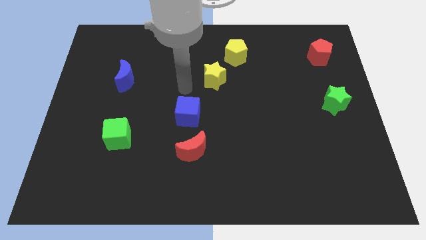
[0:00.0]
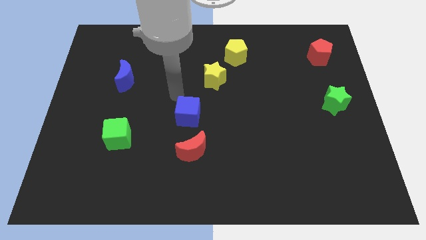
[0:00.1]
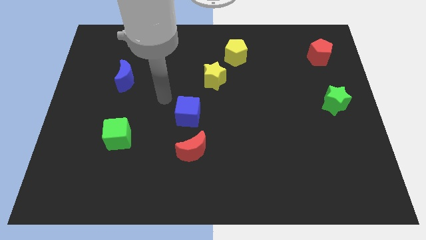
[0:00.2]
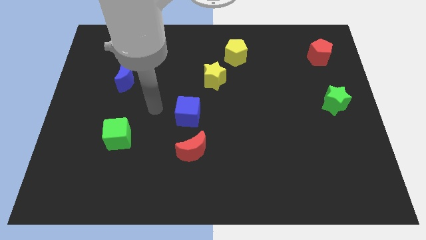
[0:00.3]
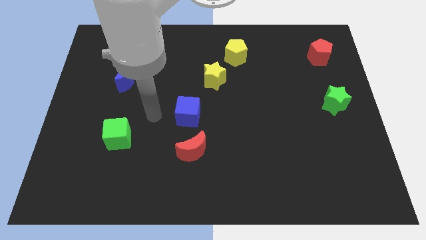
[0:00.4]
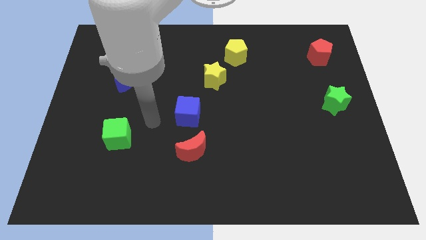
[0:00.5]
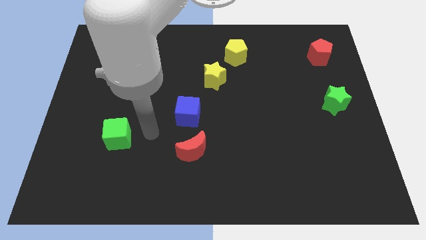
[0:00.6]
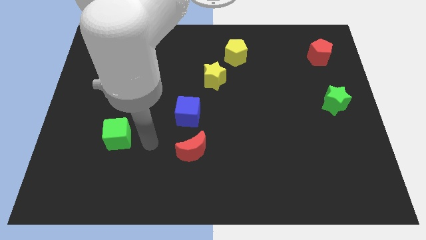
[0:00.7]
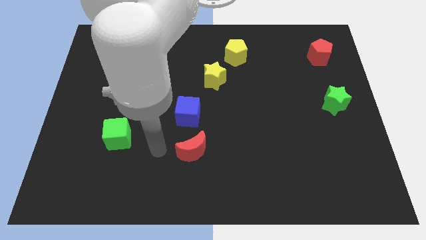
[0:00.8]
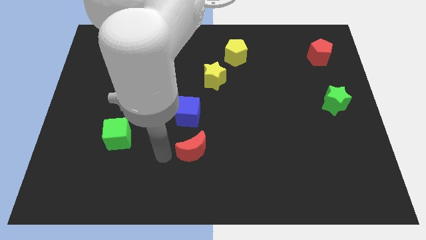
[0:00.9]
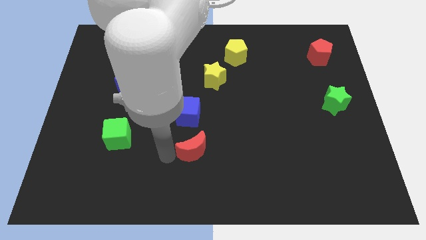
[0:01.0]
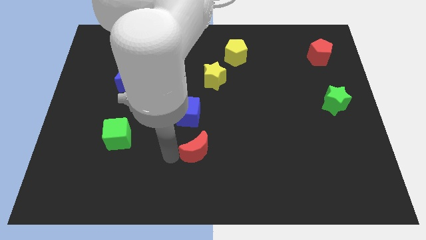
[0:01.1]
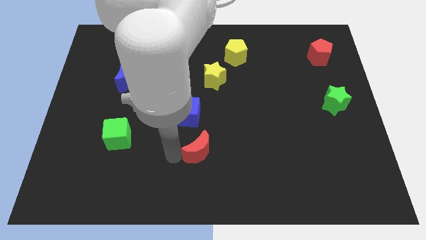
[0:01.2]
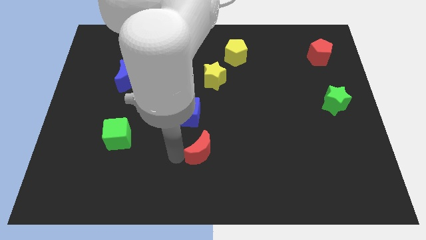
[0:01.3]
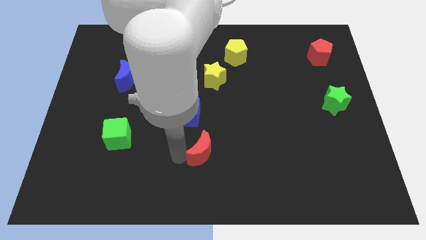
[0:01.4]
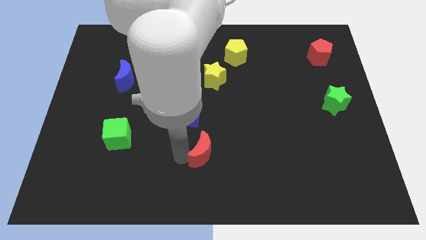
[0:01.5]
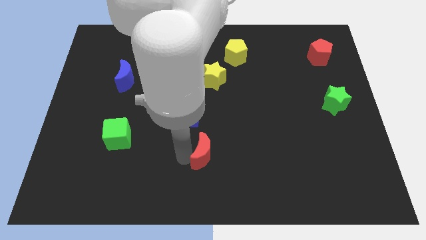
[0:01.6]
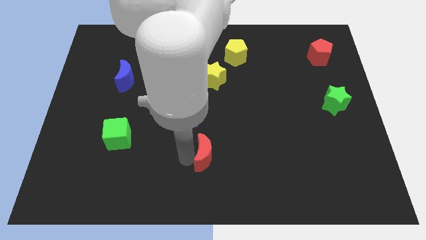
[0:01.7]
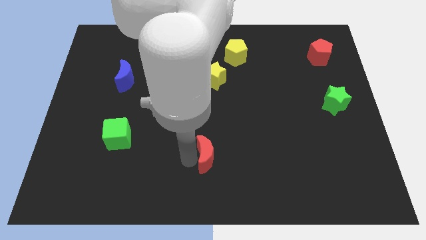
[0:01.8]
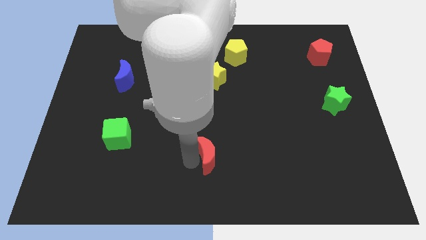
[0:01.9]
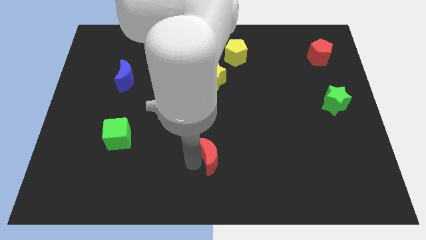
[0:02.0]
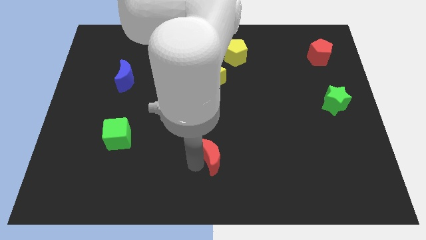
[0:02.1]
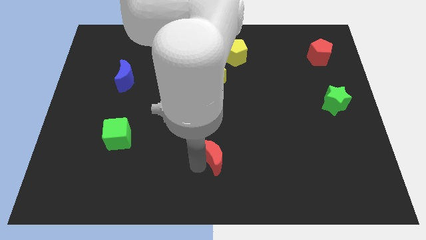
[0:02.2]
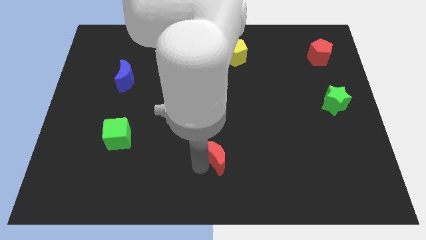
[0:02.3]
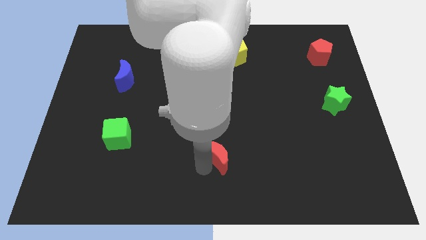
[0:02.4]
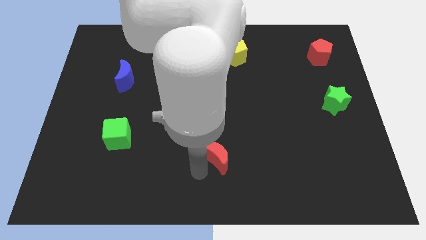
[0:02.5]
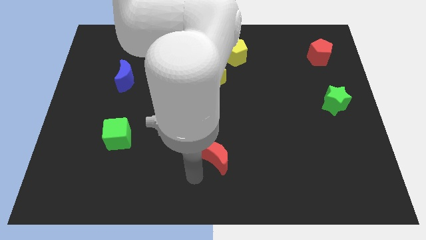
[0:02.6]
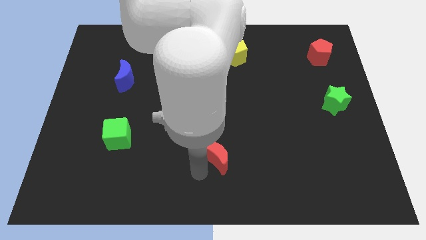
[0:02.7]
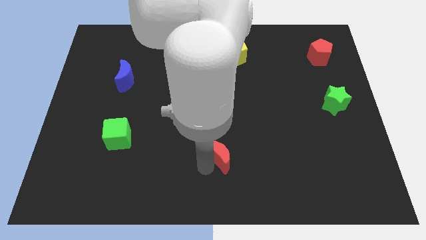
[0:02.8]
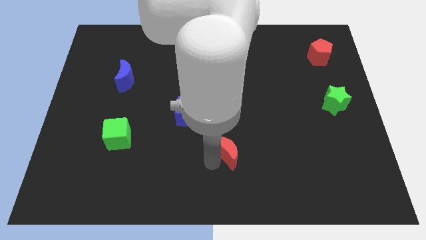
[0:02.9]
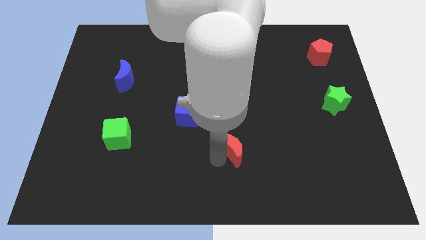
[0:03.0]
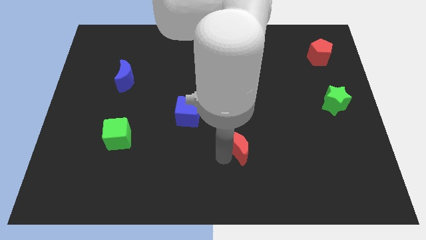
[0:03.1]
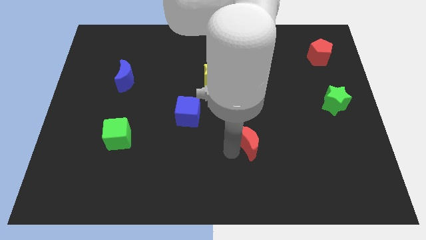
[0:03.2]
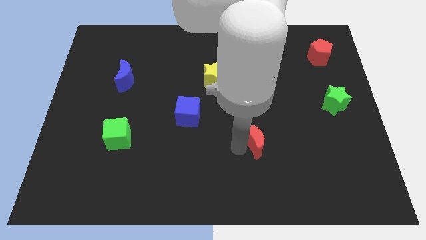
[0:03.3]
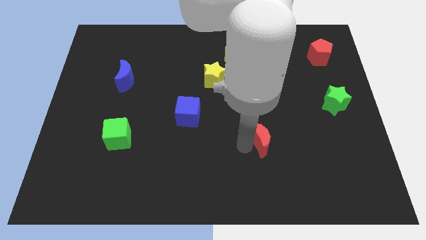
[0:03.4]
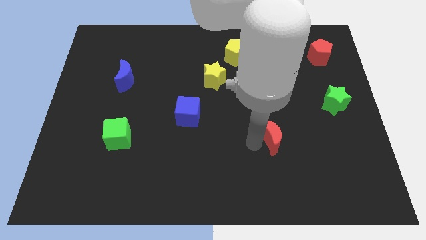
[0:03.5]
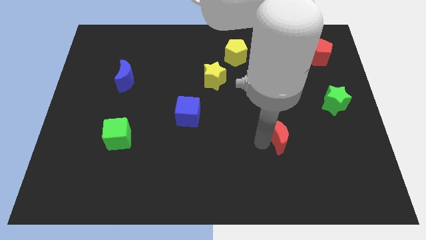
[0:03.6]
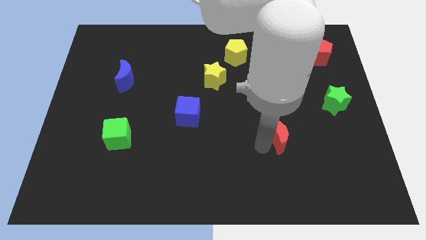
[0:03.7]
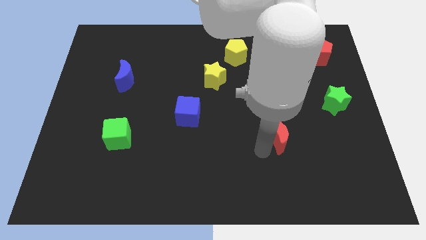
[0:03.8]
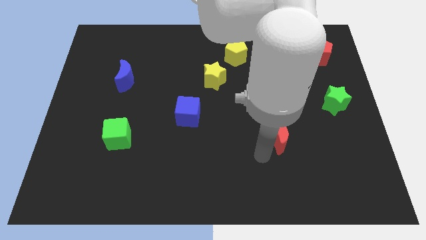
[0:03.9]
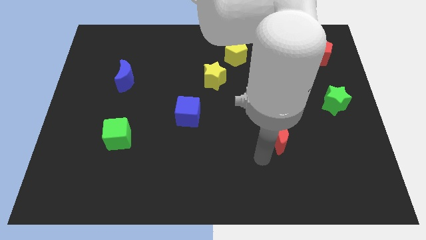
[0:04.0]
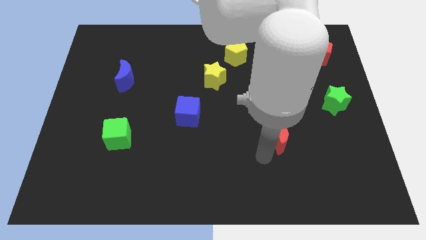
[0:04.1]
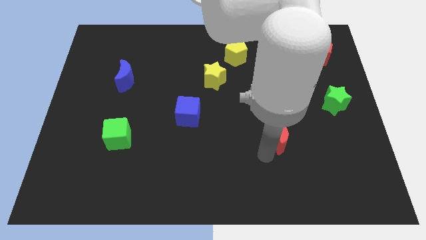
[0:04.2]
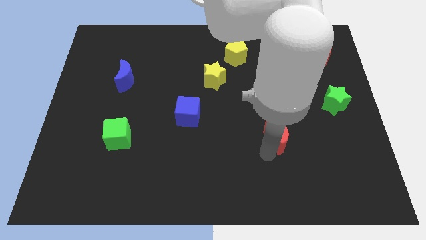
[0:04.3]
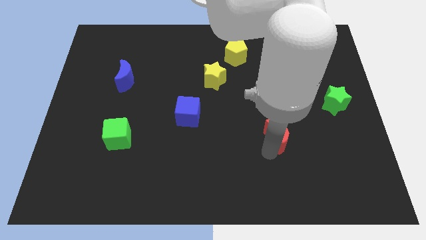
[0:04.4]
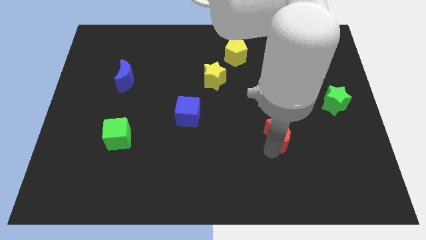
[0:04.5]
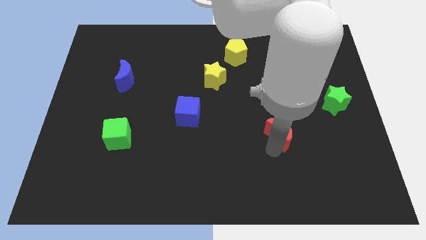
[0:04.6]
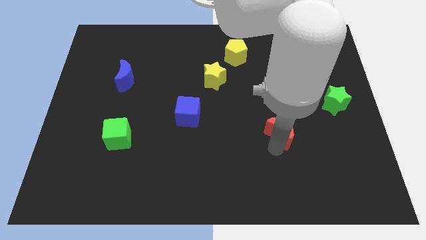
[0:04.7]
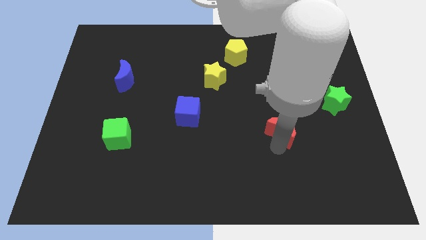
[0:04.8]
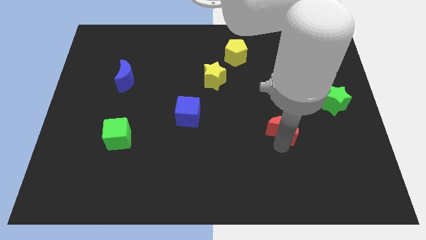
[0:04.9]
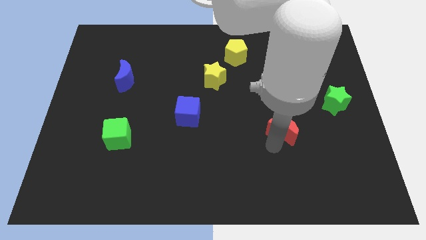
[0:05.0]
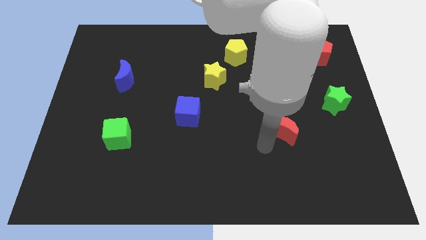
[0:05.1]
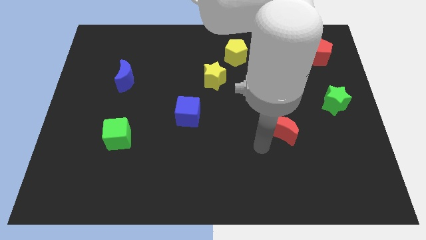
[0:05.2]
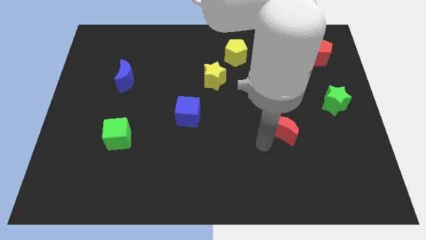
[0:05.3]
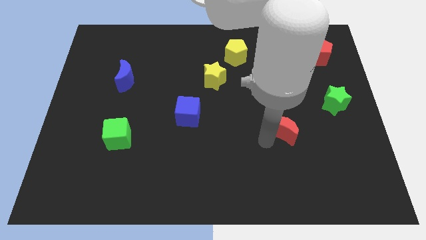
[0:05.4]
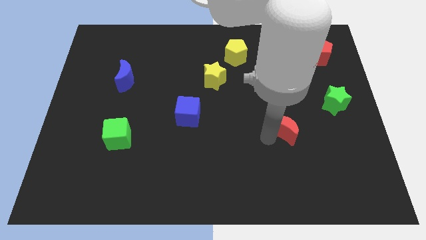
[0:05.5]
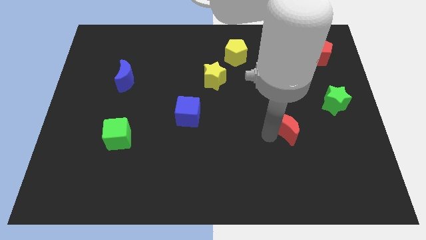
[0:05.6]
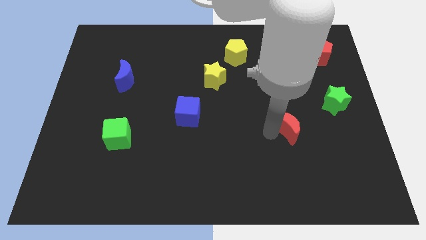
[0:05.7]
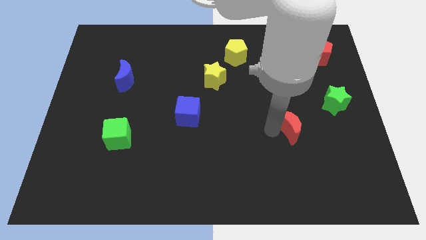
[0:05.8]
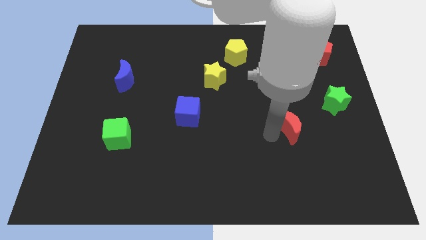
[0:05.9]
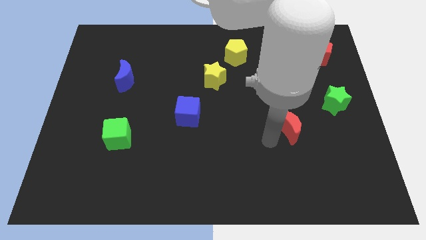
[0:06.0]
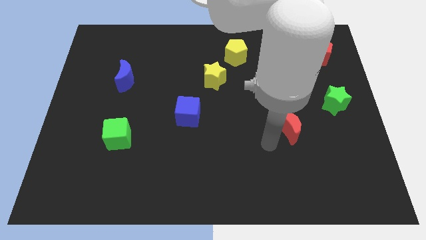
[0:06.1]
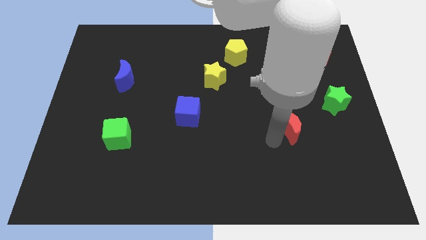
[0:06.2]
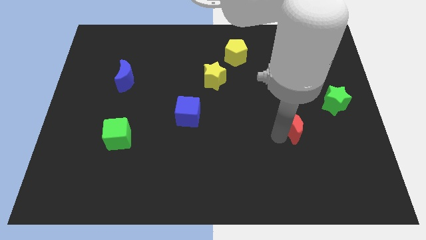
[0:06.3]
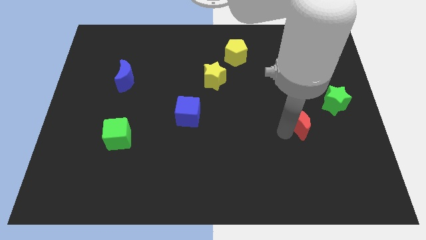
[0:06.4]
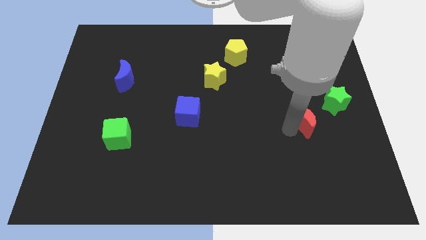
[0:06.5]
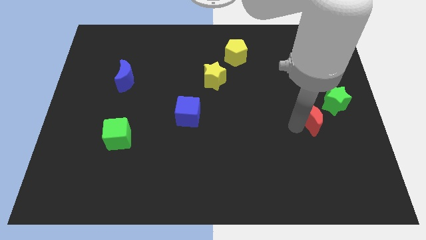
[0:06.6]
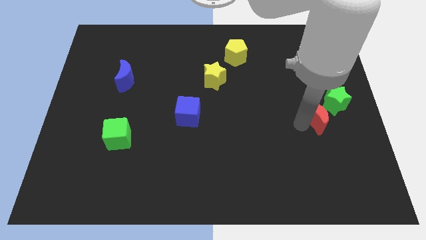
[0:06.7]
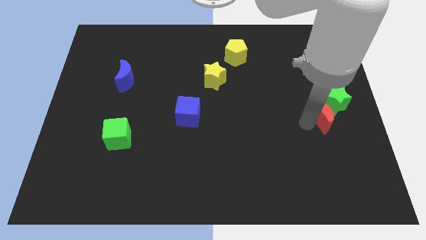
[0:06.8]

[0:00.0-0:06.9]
push the red moon next to the green star

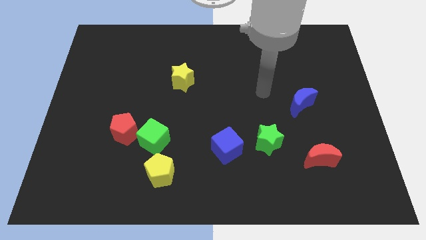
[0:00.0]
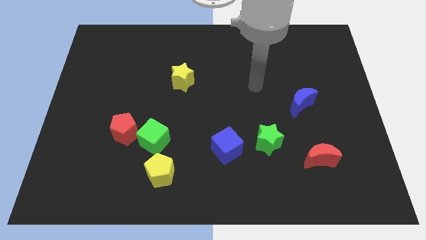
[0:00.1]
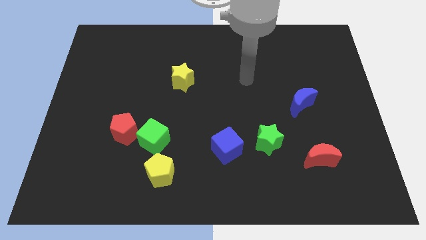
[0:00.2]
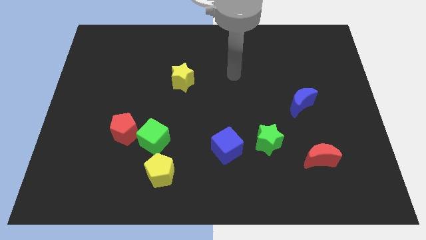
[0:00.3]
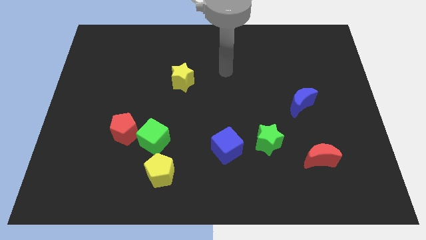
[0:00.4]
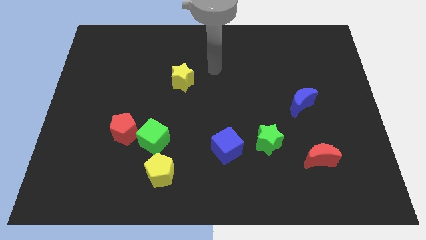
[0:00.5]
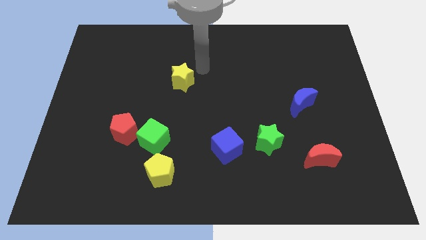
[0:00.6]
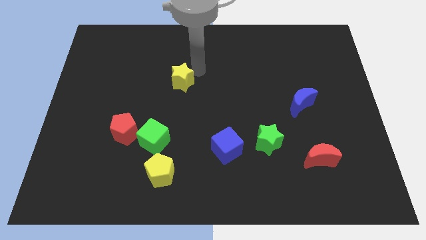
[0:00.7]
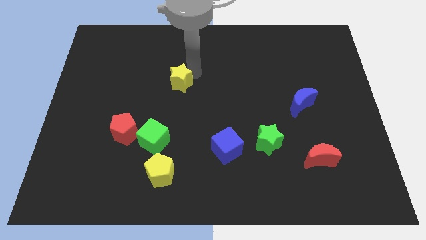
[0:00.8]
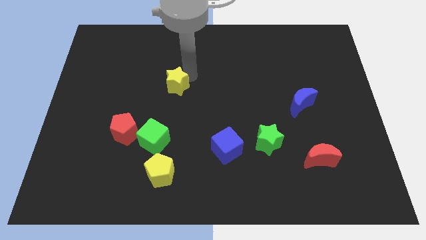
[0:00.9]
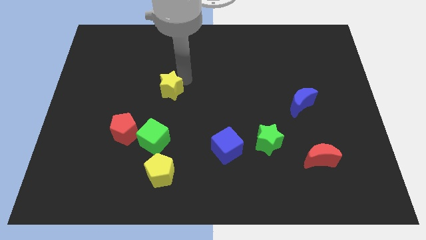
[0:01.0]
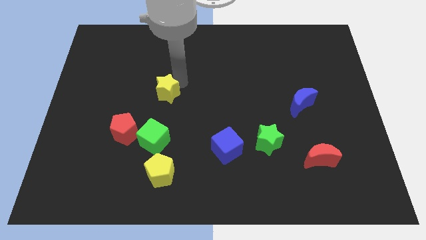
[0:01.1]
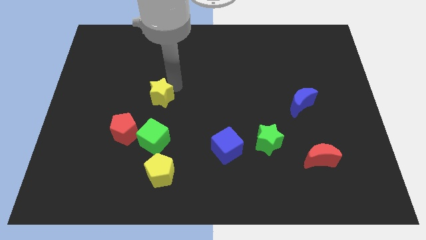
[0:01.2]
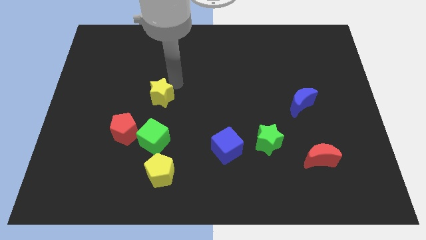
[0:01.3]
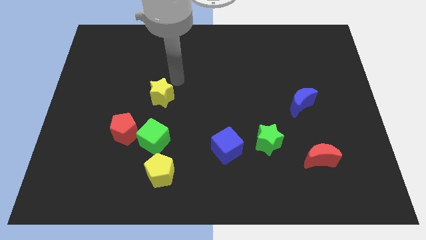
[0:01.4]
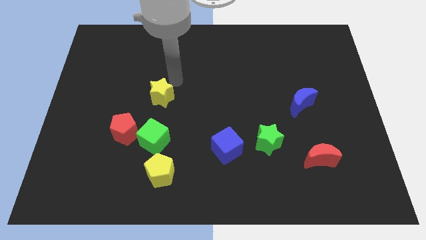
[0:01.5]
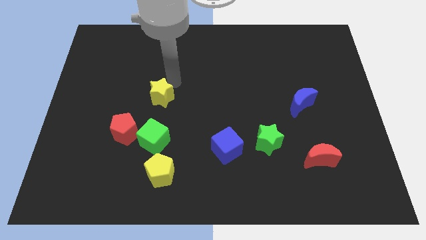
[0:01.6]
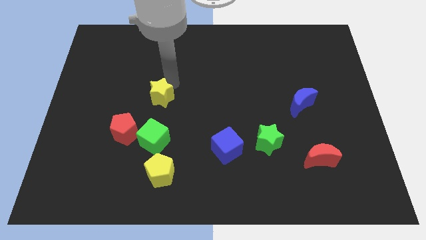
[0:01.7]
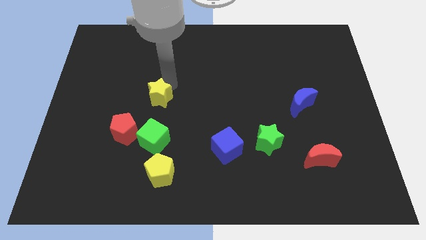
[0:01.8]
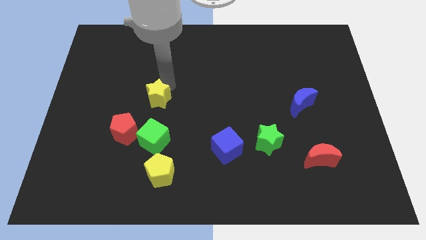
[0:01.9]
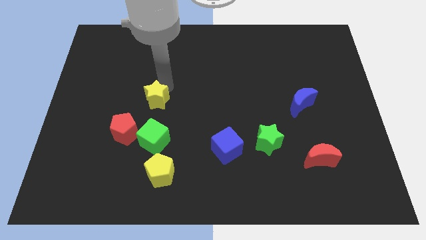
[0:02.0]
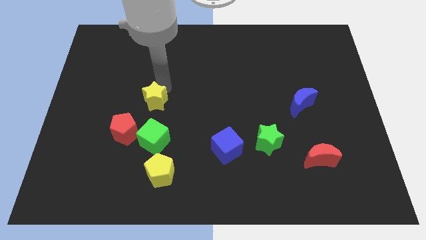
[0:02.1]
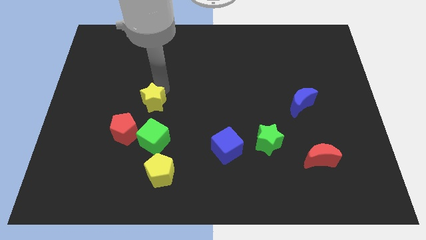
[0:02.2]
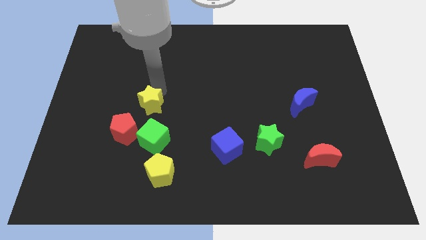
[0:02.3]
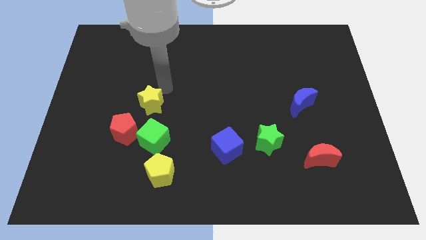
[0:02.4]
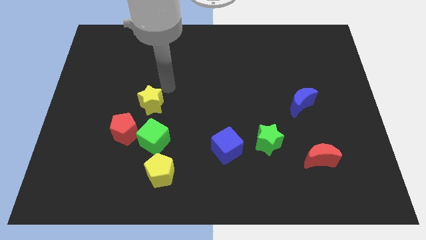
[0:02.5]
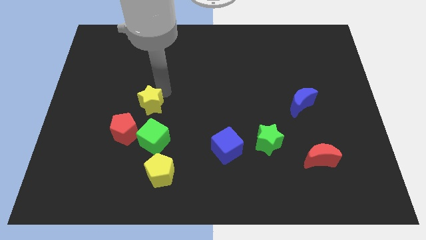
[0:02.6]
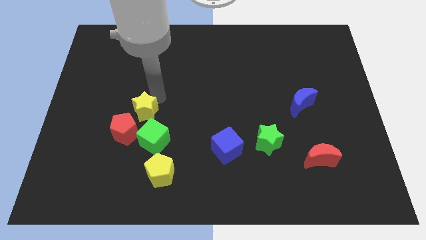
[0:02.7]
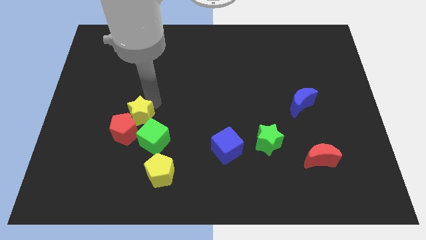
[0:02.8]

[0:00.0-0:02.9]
put the yellow star close to the red pentagon
